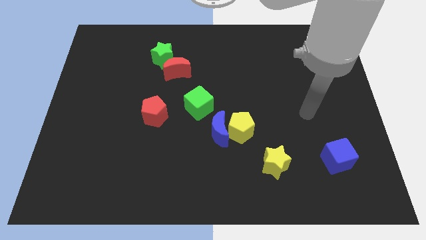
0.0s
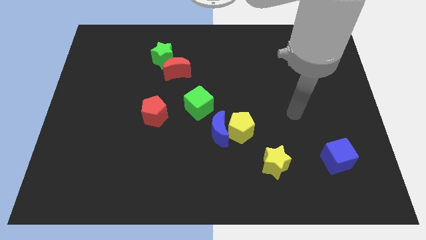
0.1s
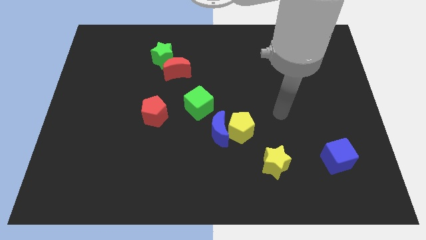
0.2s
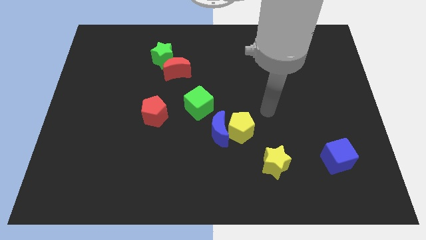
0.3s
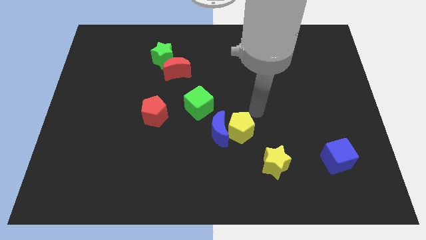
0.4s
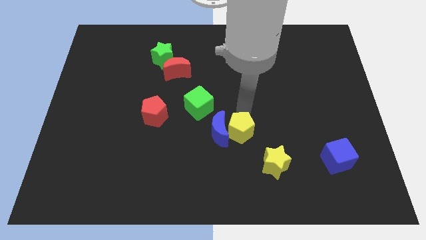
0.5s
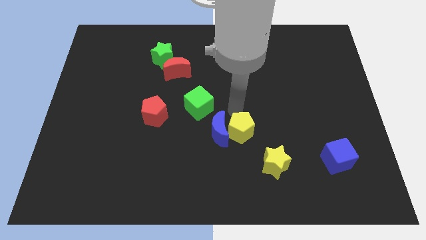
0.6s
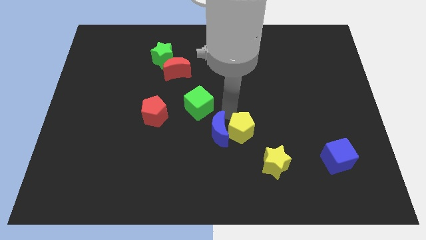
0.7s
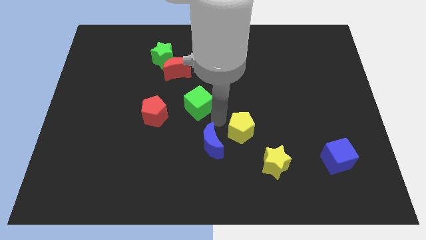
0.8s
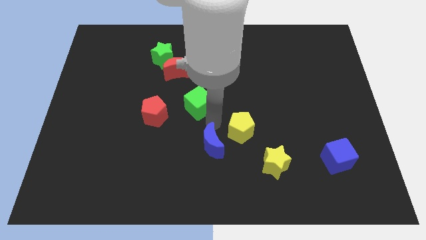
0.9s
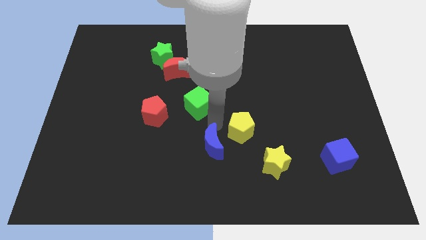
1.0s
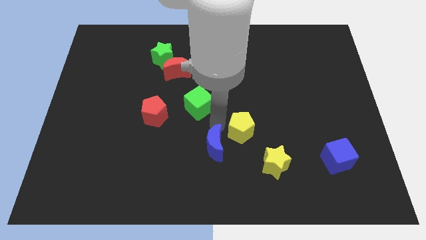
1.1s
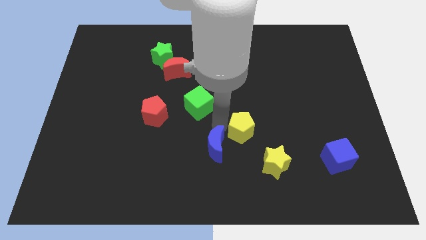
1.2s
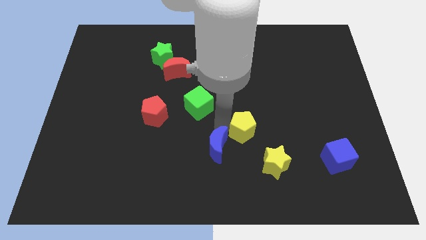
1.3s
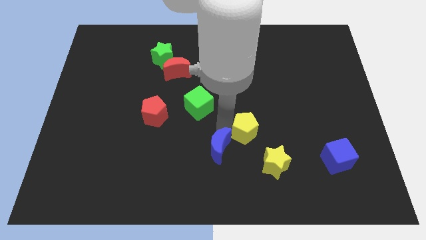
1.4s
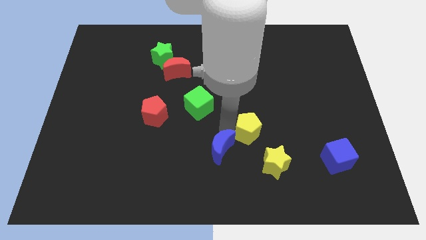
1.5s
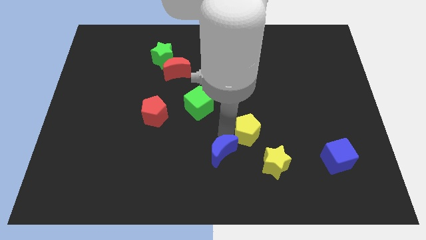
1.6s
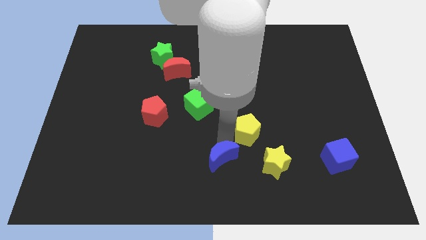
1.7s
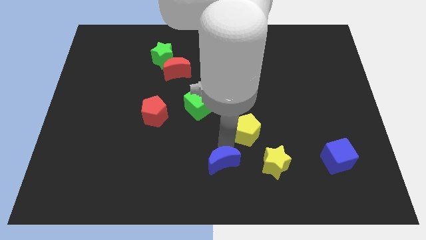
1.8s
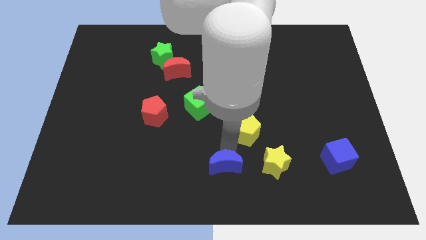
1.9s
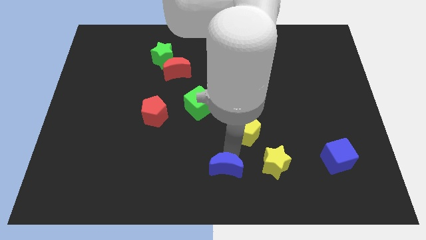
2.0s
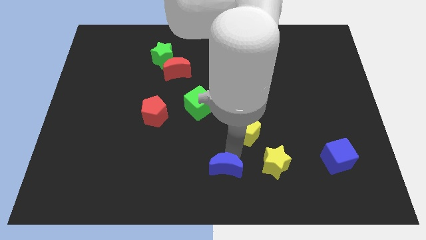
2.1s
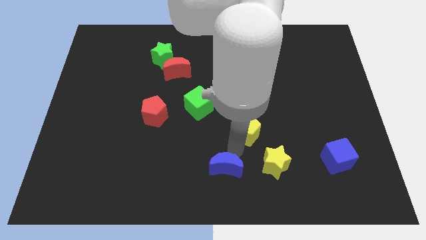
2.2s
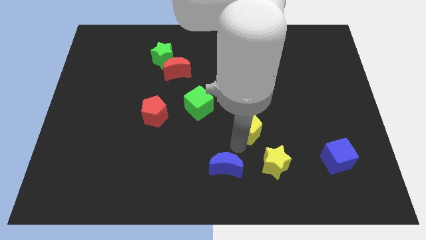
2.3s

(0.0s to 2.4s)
move the yellow pentagon away from the blue moon

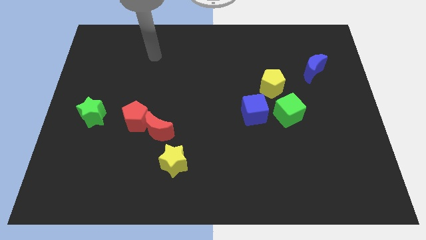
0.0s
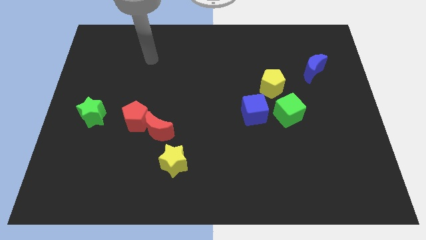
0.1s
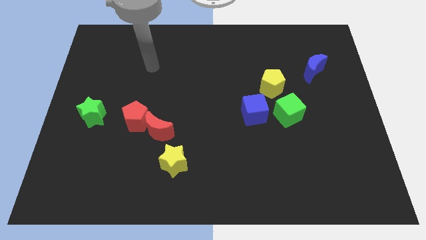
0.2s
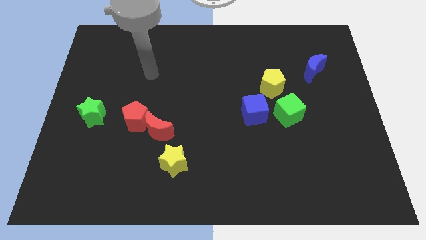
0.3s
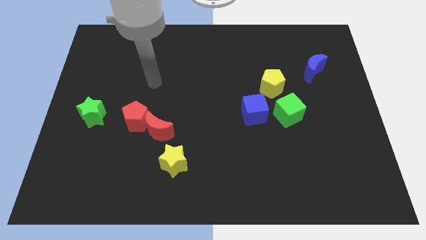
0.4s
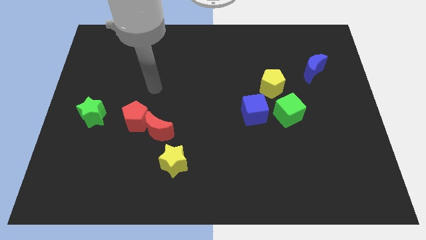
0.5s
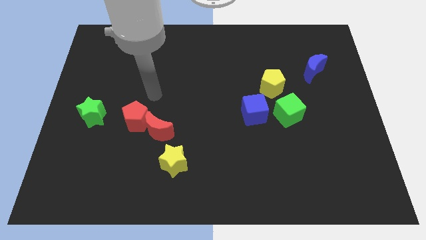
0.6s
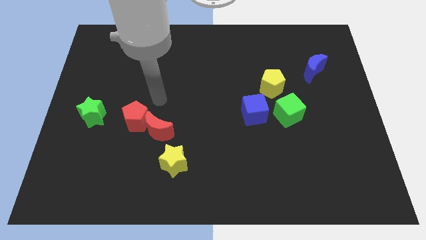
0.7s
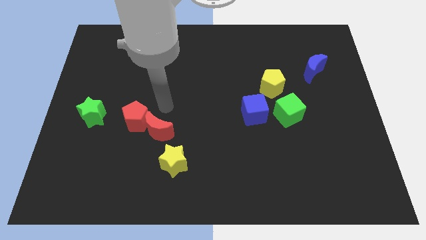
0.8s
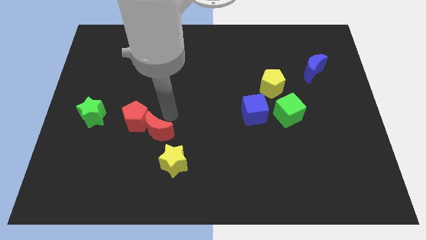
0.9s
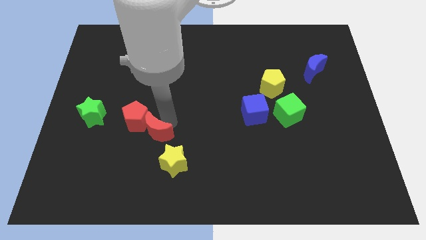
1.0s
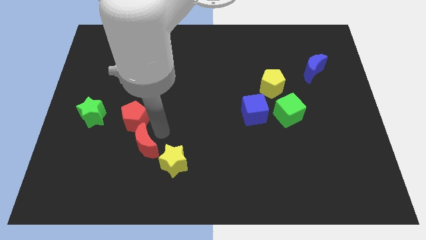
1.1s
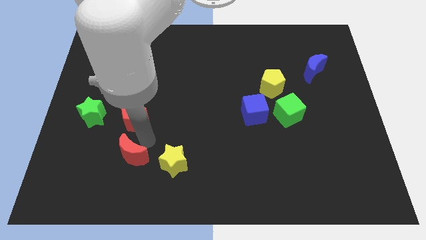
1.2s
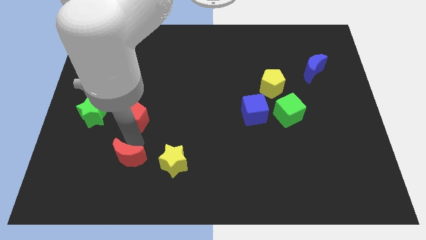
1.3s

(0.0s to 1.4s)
move the red pentagon away from the red moon

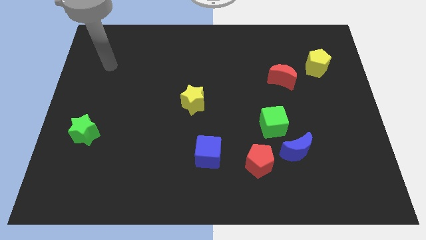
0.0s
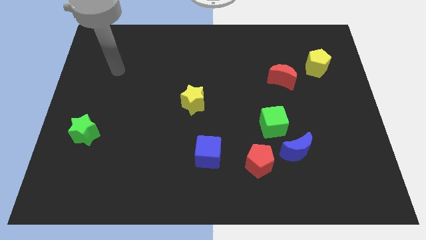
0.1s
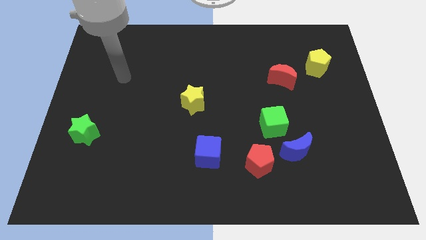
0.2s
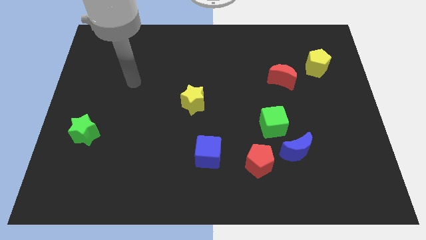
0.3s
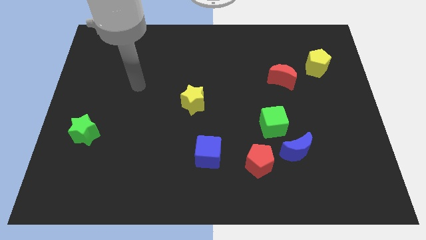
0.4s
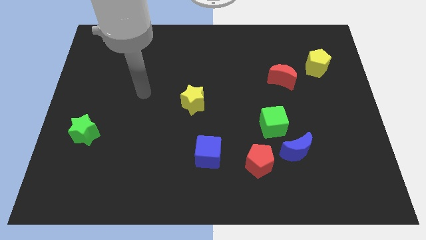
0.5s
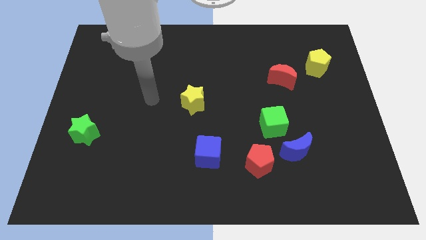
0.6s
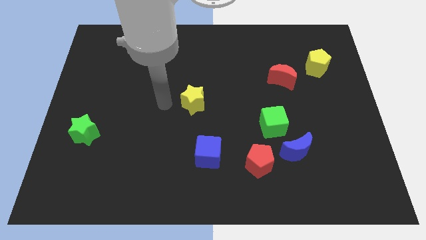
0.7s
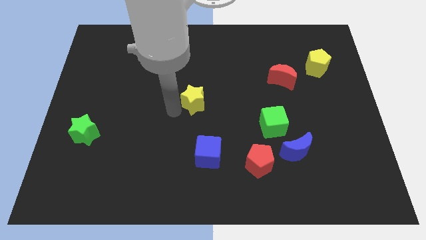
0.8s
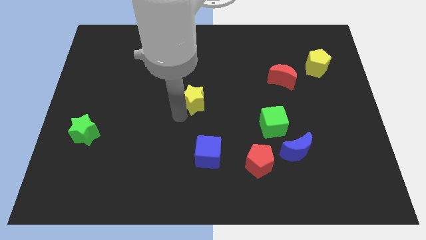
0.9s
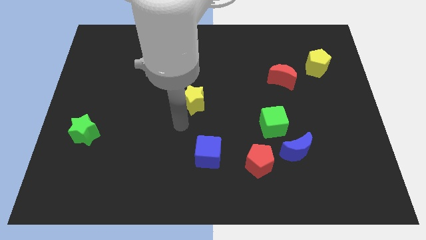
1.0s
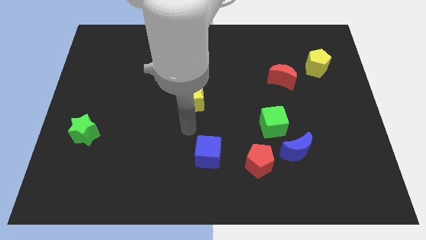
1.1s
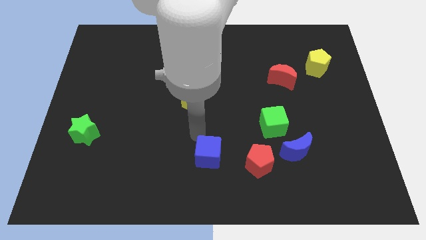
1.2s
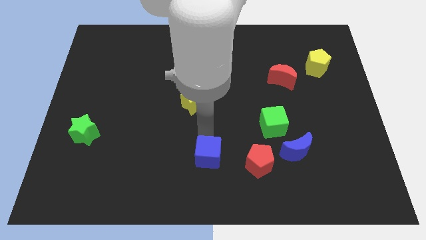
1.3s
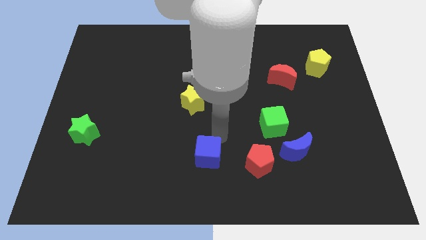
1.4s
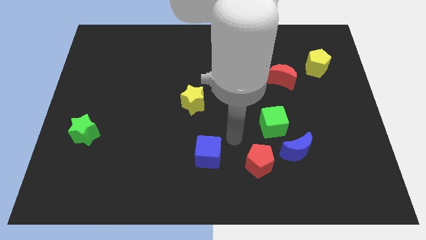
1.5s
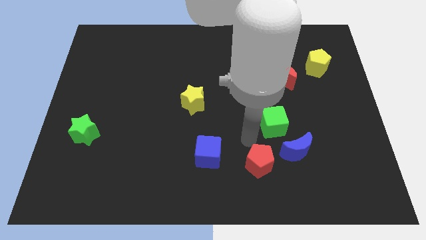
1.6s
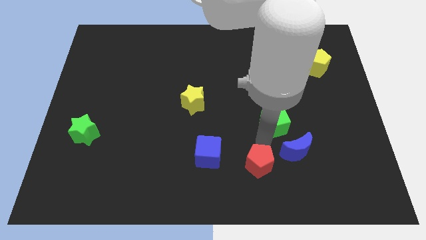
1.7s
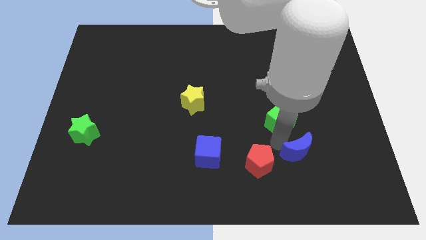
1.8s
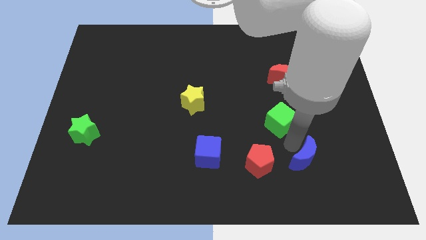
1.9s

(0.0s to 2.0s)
separate the green cube from the blue moon

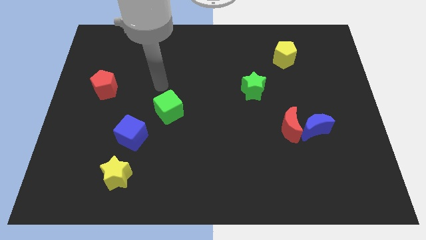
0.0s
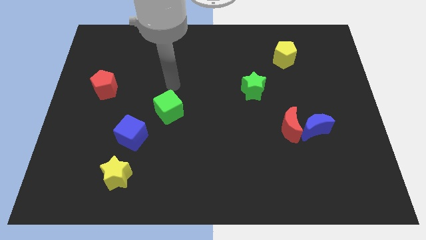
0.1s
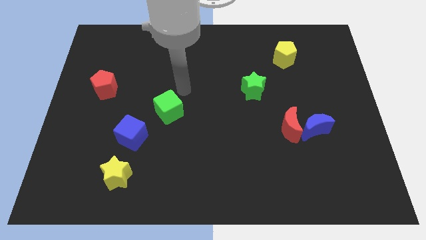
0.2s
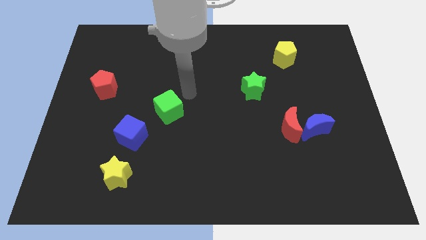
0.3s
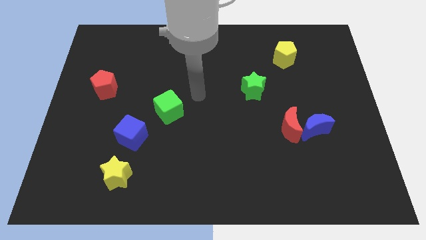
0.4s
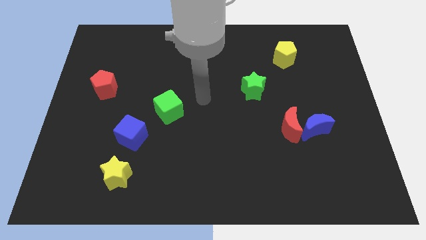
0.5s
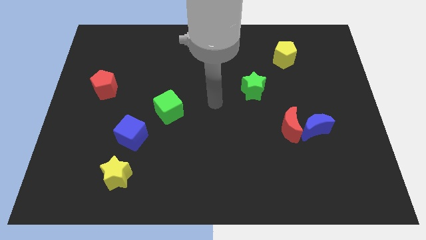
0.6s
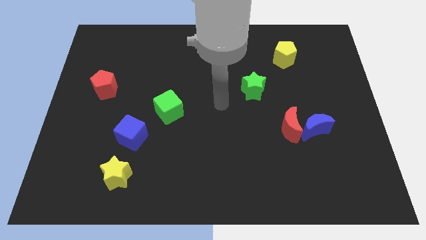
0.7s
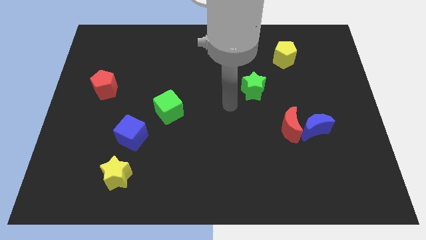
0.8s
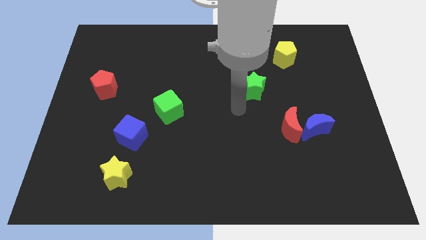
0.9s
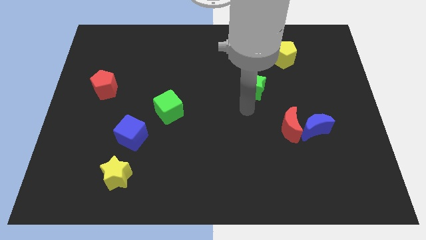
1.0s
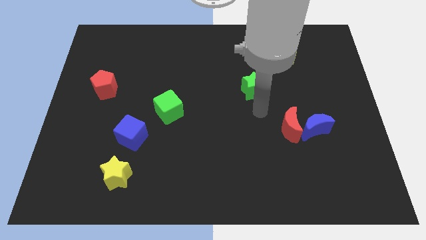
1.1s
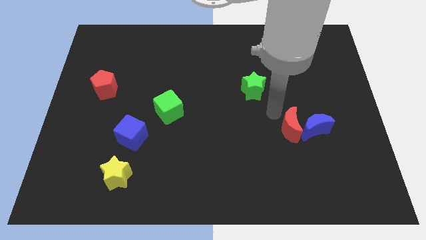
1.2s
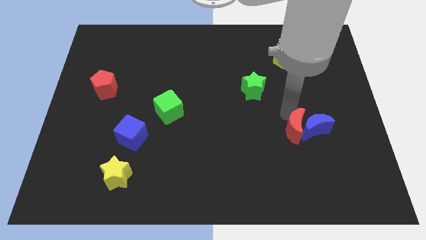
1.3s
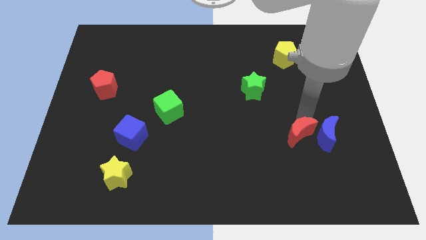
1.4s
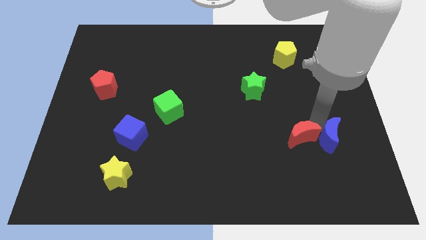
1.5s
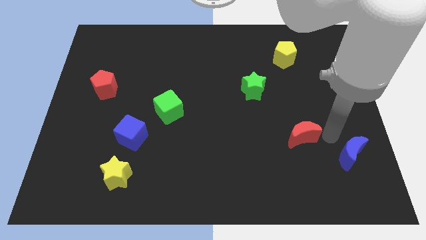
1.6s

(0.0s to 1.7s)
move the red moon away from the blue moon

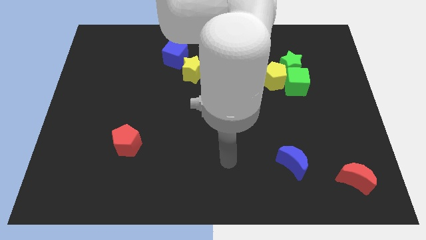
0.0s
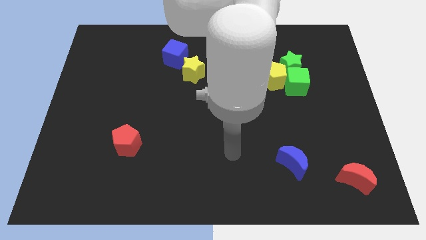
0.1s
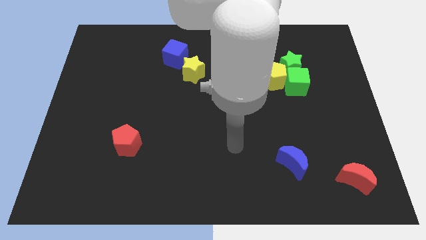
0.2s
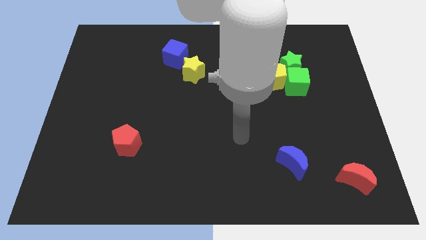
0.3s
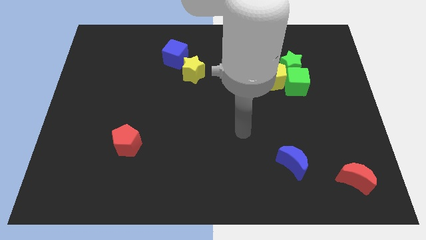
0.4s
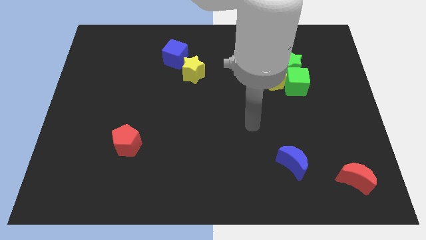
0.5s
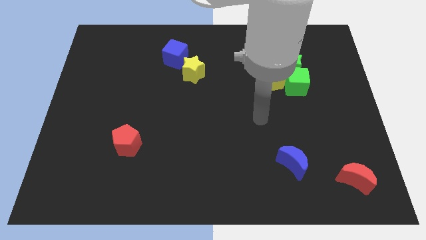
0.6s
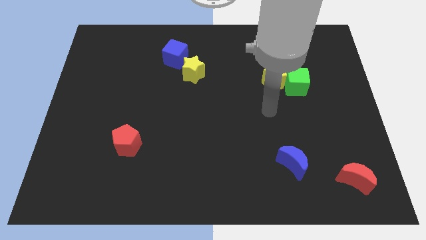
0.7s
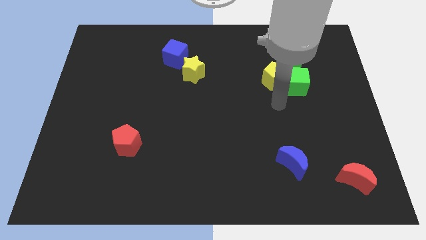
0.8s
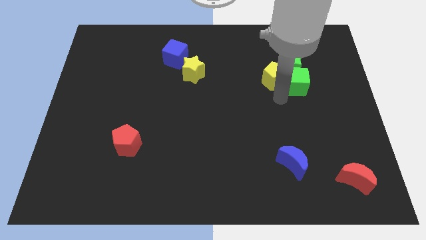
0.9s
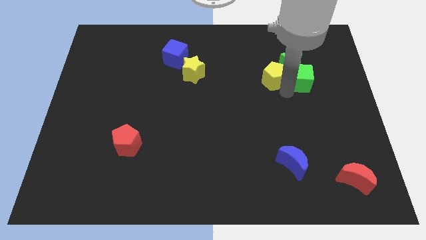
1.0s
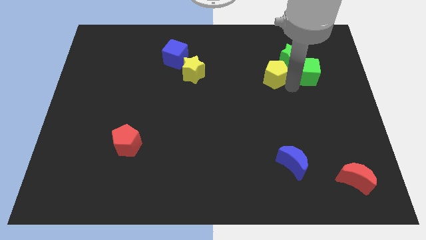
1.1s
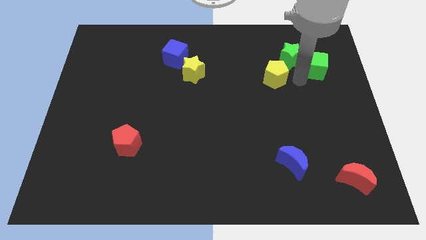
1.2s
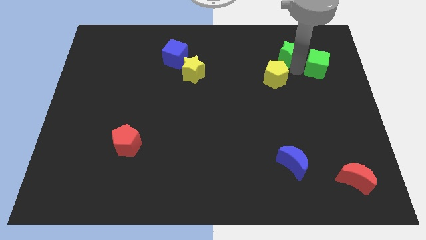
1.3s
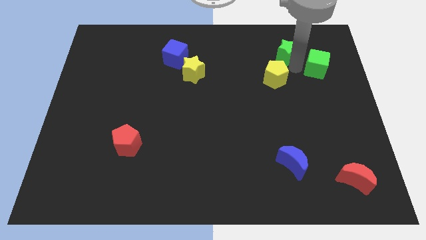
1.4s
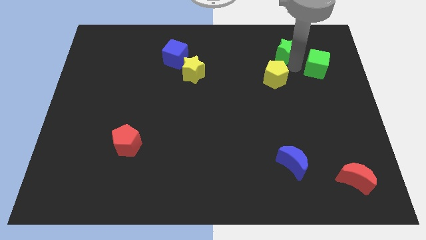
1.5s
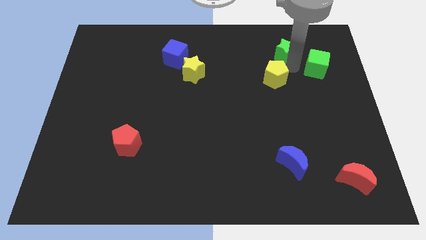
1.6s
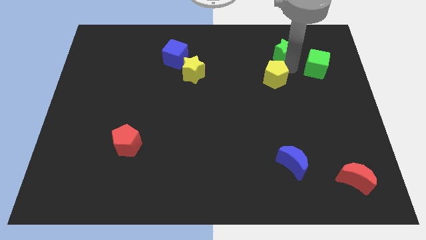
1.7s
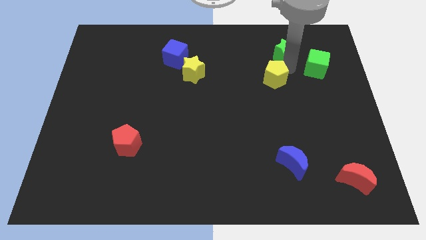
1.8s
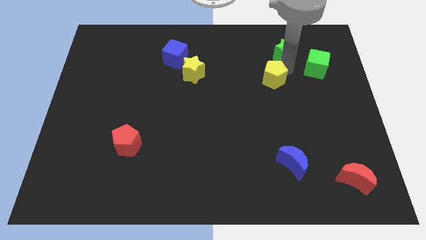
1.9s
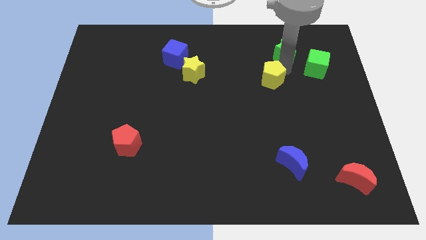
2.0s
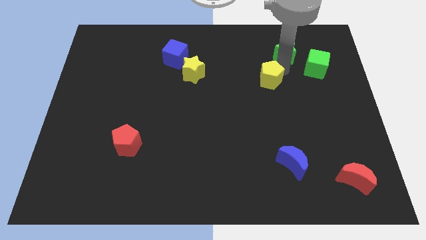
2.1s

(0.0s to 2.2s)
pull the yellow pentagon apart from the green star and green cube
